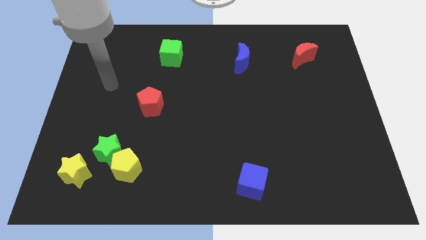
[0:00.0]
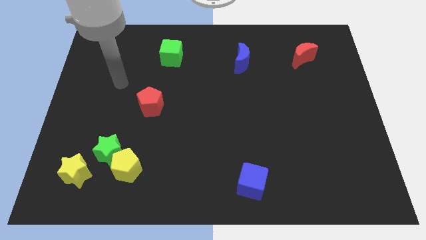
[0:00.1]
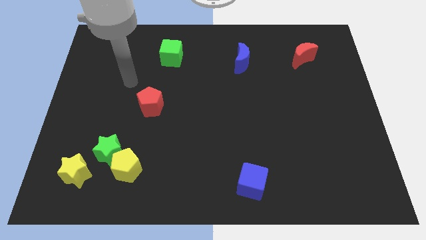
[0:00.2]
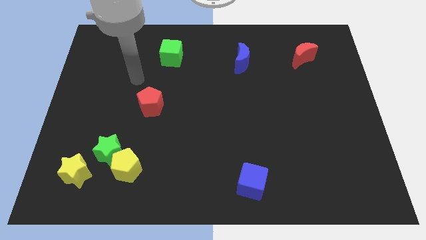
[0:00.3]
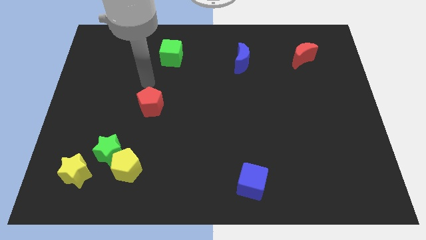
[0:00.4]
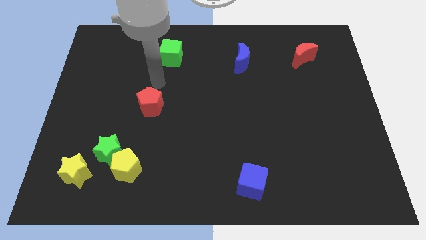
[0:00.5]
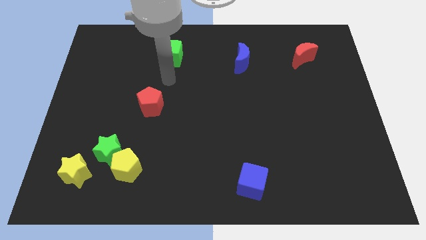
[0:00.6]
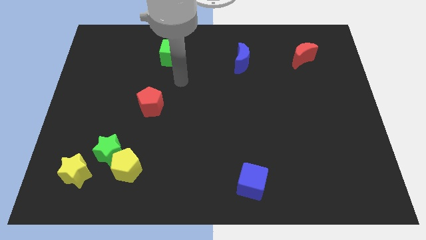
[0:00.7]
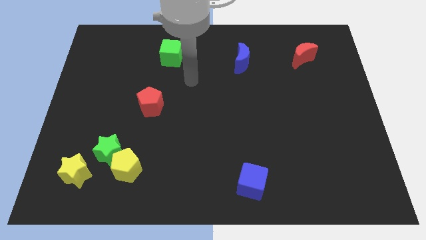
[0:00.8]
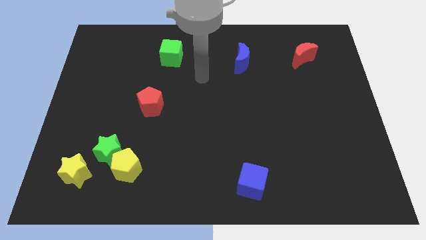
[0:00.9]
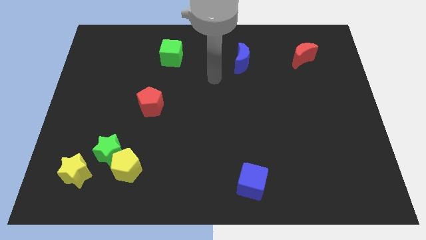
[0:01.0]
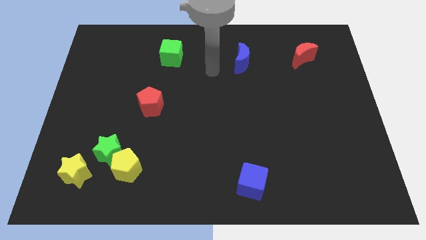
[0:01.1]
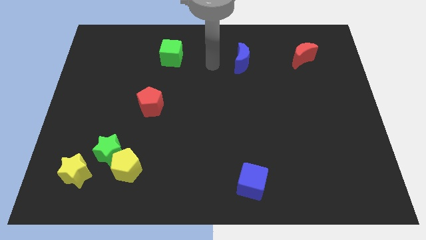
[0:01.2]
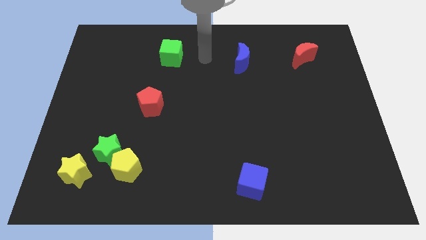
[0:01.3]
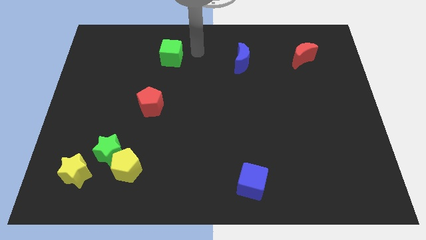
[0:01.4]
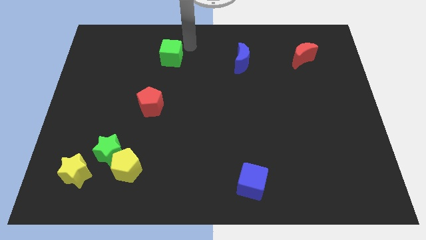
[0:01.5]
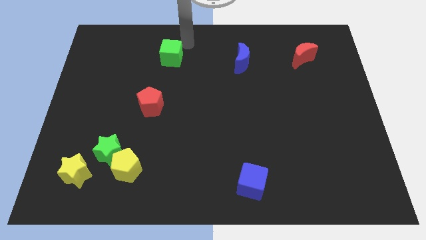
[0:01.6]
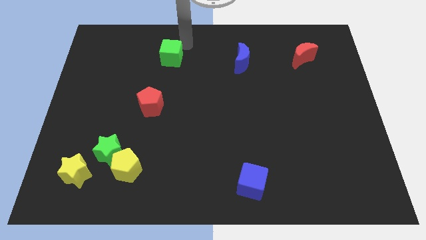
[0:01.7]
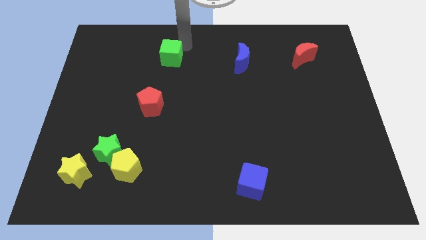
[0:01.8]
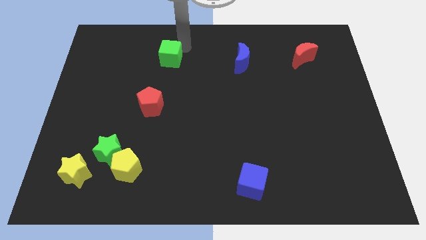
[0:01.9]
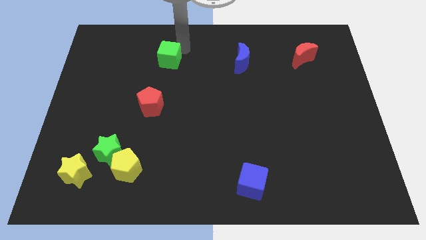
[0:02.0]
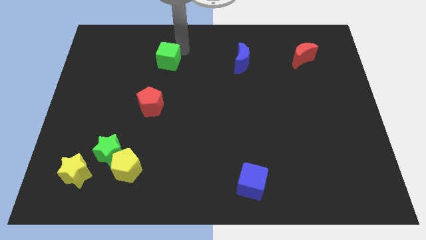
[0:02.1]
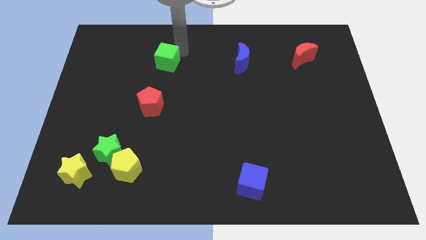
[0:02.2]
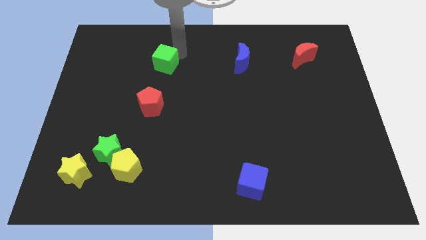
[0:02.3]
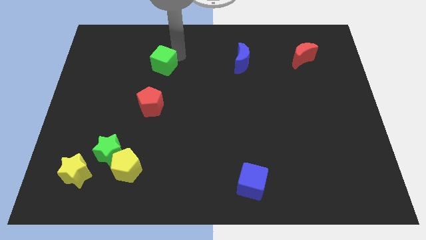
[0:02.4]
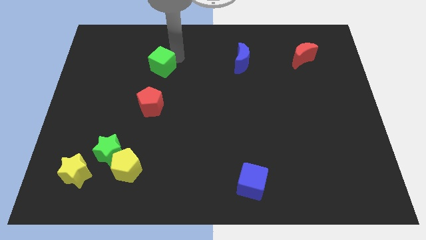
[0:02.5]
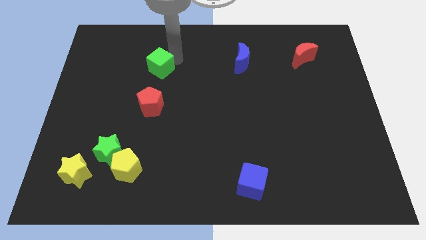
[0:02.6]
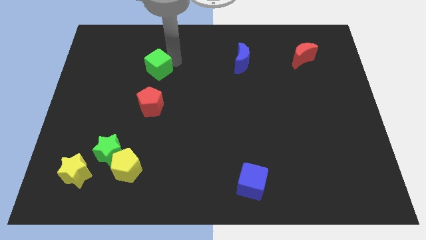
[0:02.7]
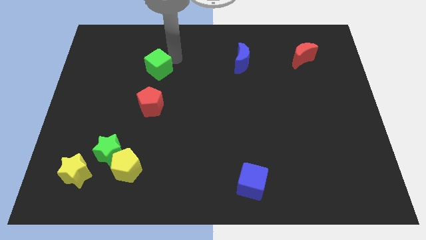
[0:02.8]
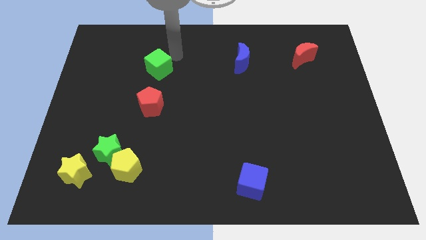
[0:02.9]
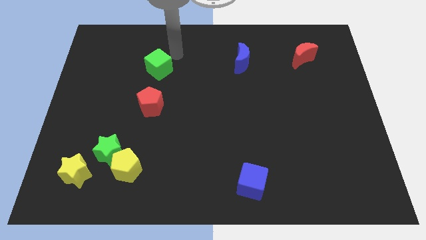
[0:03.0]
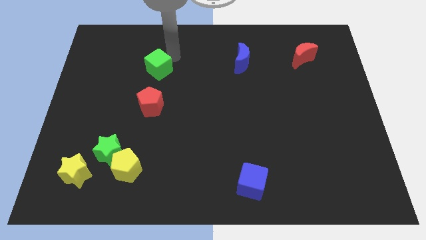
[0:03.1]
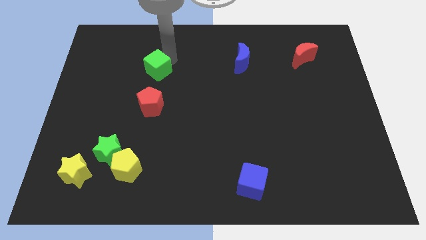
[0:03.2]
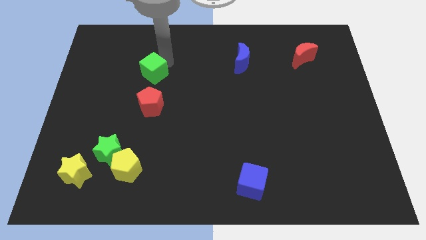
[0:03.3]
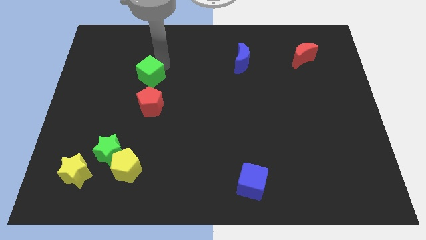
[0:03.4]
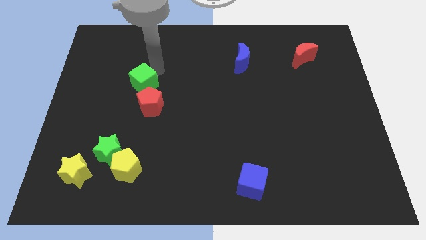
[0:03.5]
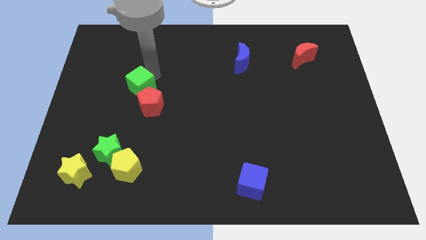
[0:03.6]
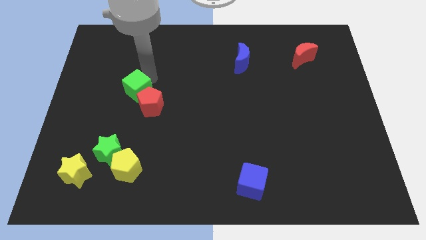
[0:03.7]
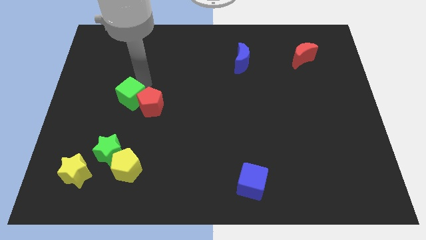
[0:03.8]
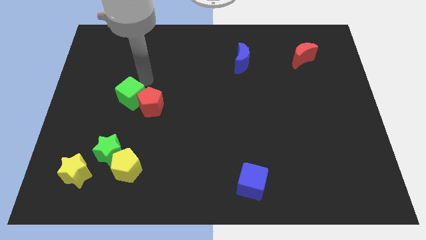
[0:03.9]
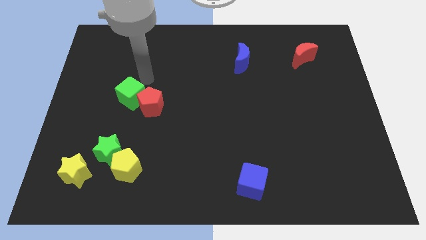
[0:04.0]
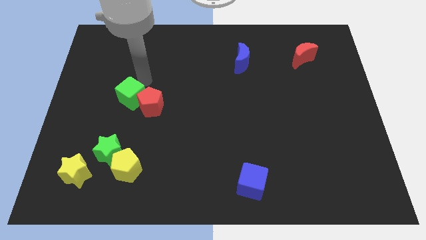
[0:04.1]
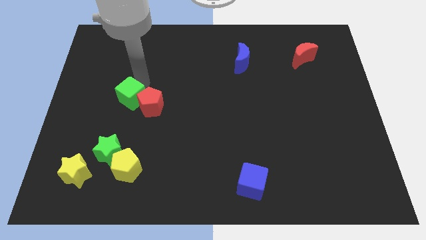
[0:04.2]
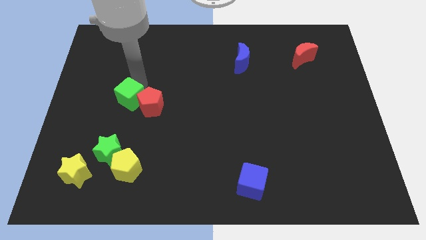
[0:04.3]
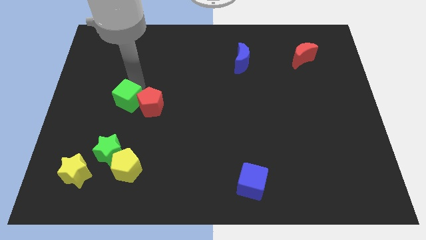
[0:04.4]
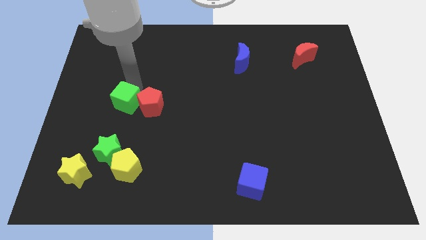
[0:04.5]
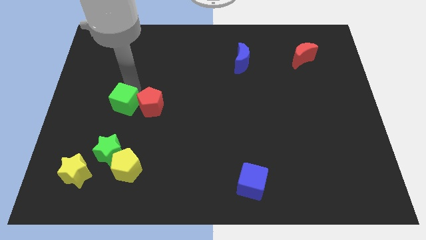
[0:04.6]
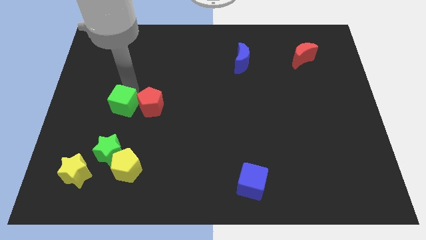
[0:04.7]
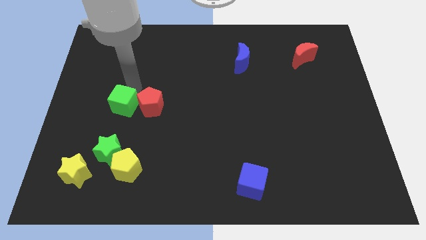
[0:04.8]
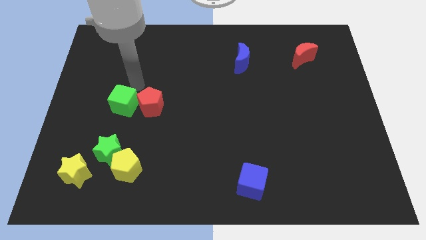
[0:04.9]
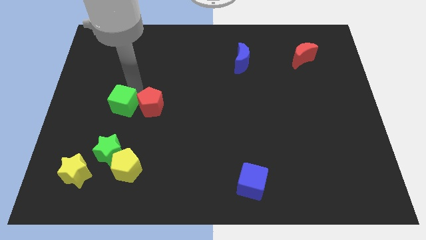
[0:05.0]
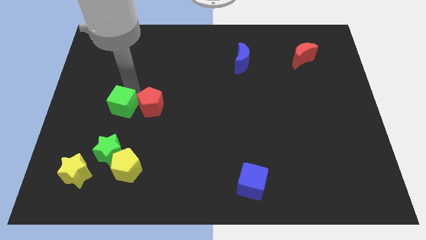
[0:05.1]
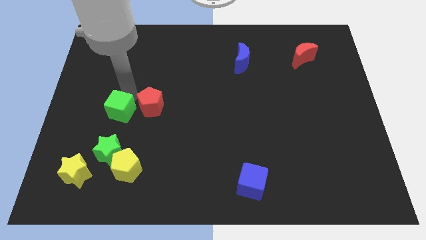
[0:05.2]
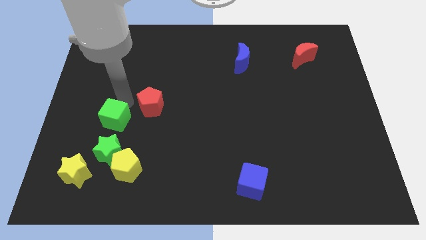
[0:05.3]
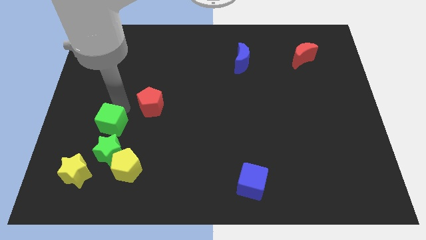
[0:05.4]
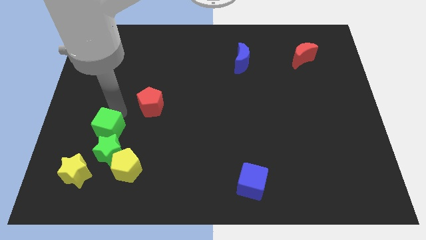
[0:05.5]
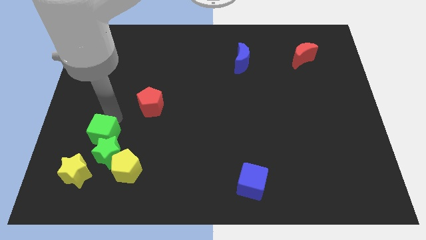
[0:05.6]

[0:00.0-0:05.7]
put the green cube to the green star

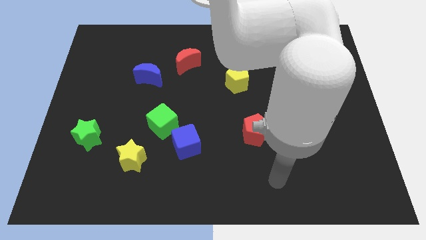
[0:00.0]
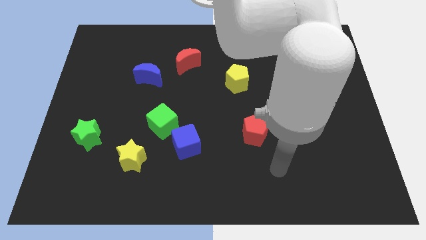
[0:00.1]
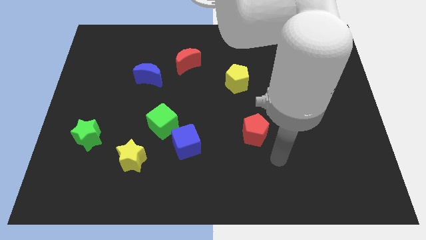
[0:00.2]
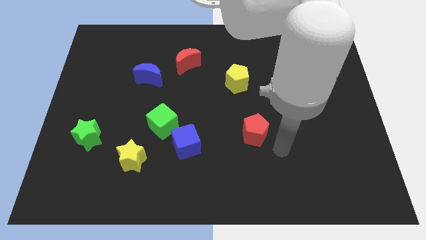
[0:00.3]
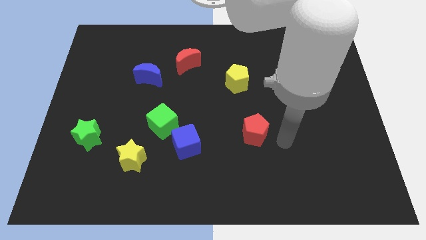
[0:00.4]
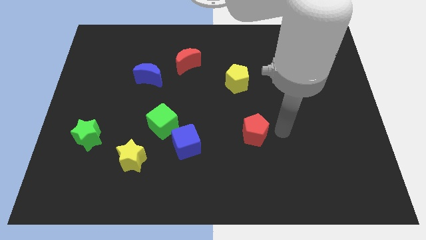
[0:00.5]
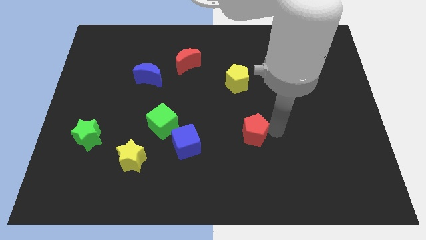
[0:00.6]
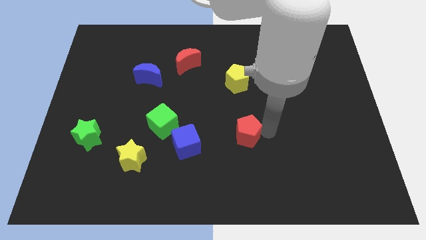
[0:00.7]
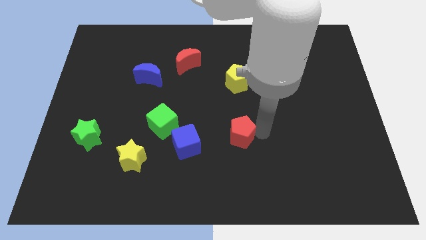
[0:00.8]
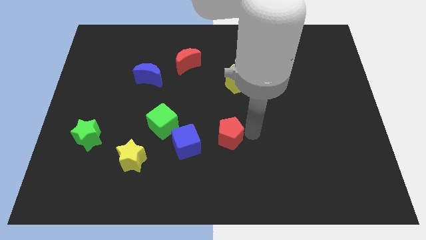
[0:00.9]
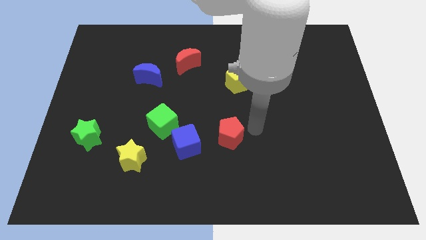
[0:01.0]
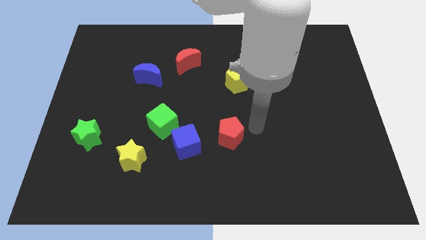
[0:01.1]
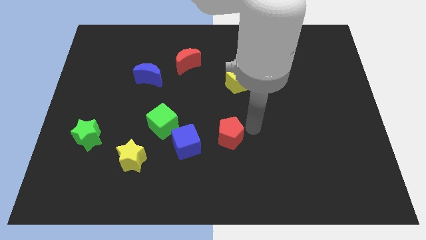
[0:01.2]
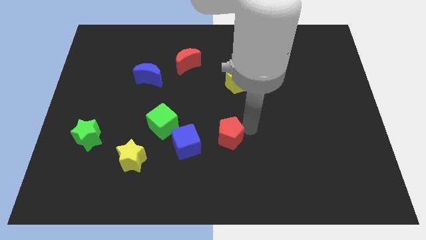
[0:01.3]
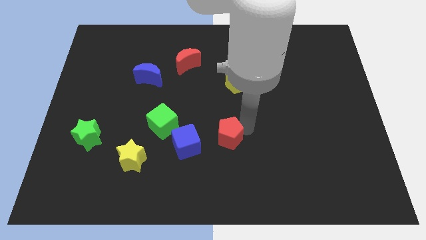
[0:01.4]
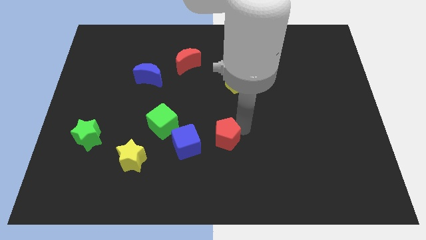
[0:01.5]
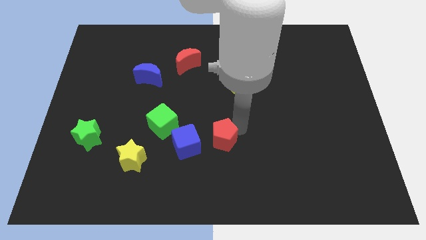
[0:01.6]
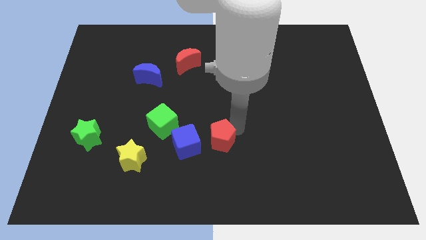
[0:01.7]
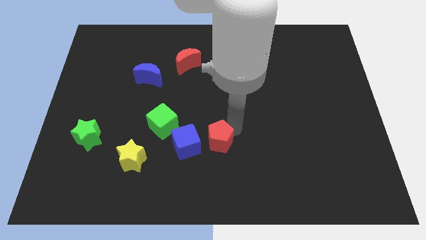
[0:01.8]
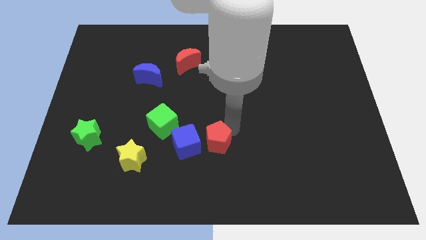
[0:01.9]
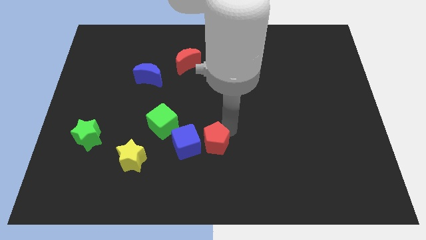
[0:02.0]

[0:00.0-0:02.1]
slide the red pentagon next to the blue cube
